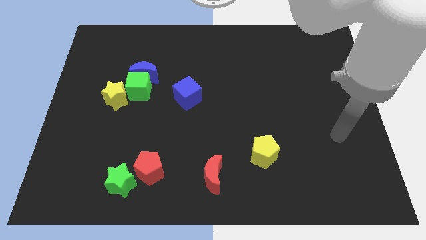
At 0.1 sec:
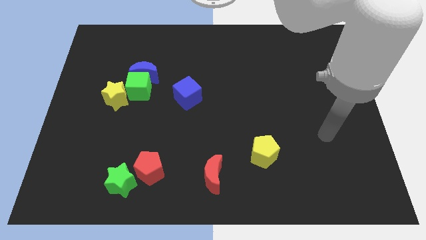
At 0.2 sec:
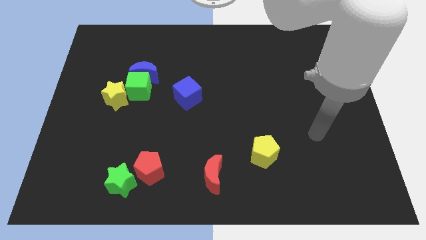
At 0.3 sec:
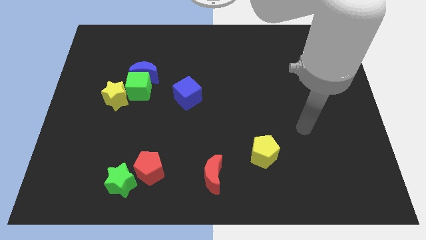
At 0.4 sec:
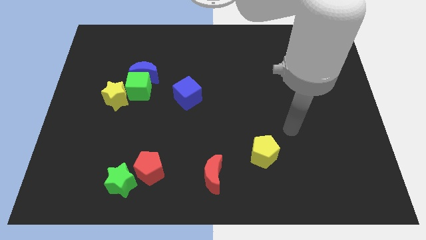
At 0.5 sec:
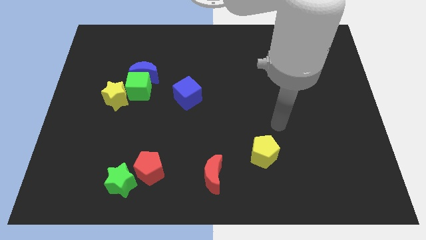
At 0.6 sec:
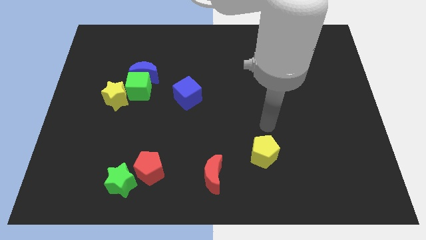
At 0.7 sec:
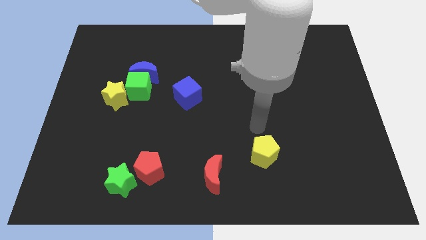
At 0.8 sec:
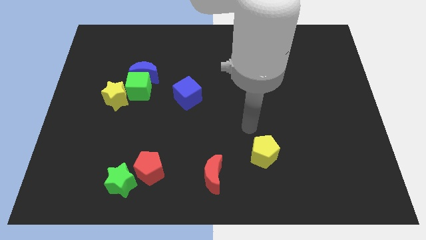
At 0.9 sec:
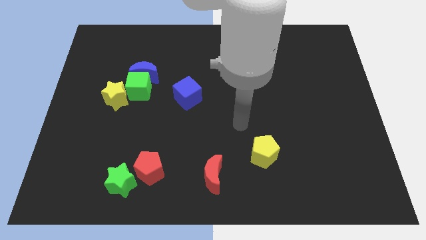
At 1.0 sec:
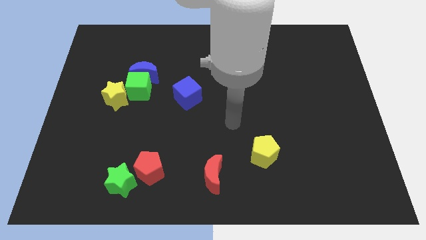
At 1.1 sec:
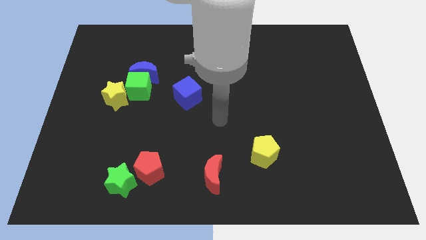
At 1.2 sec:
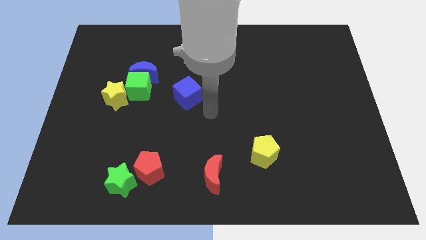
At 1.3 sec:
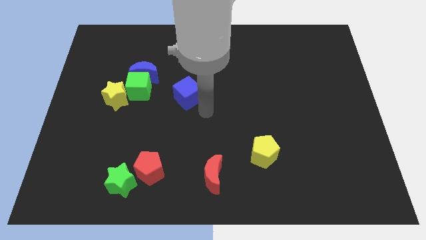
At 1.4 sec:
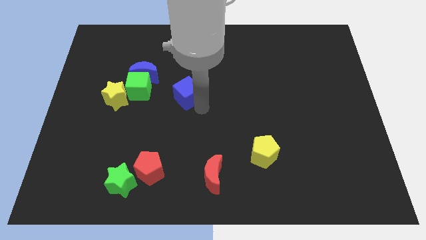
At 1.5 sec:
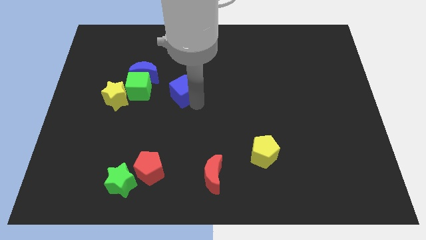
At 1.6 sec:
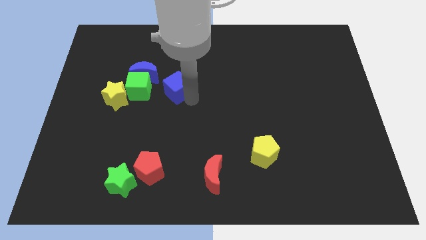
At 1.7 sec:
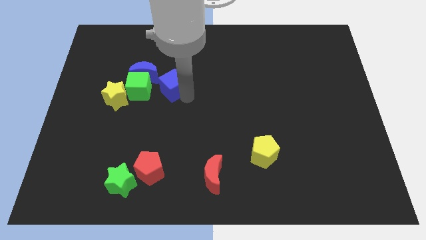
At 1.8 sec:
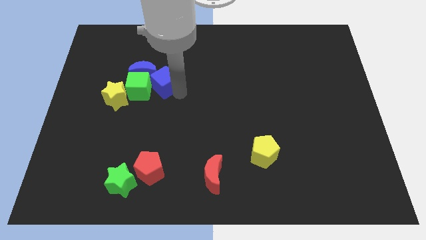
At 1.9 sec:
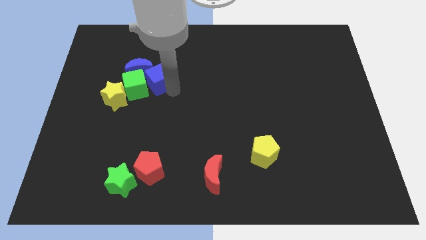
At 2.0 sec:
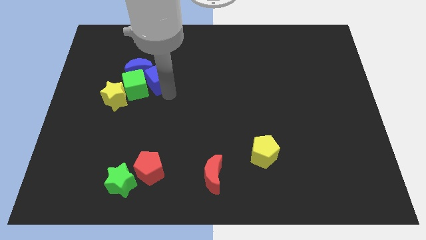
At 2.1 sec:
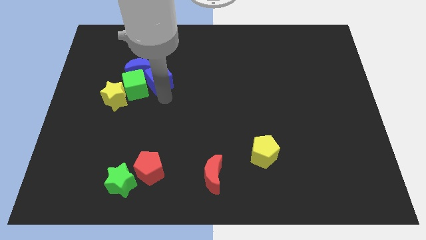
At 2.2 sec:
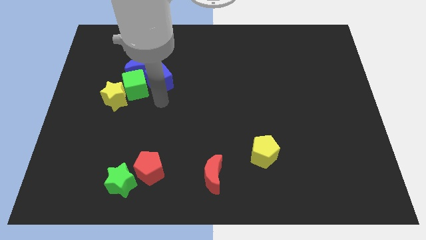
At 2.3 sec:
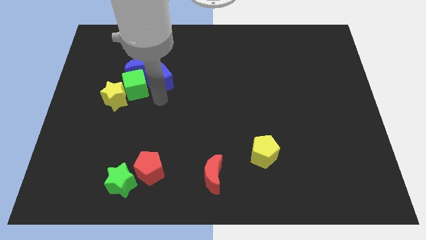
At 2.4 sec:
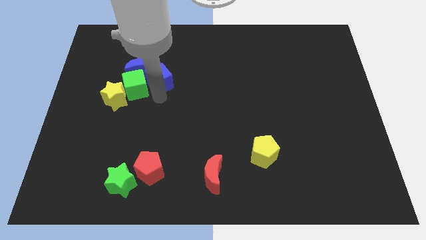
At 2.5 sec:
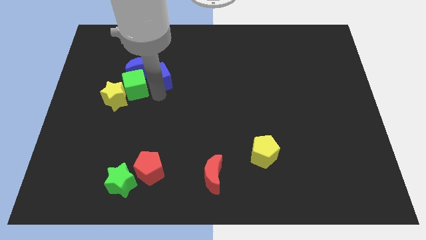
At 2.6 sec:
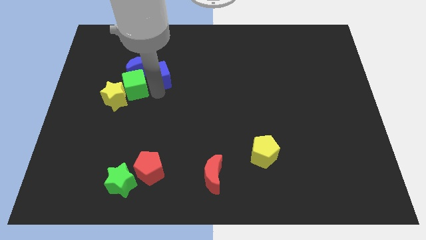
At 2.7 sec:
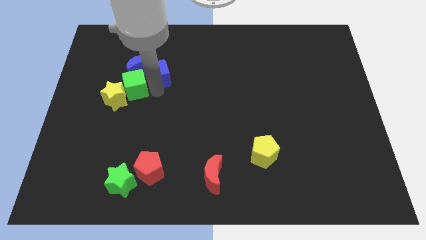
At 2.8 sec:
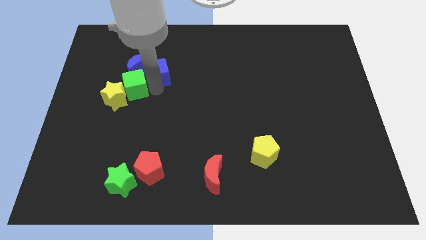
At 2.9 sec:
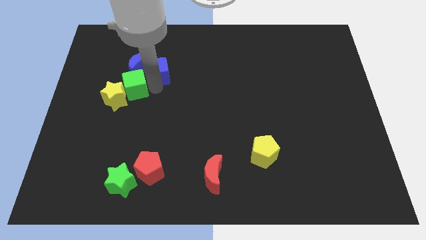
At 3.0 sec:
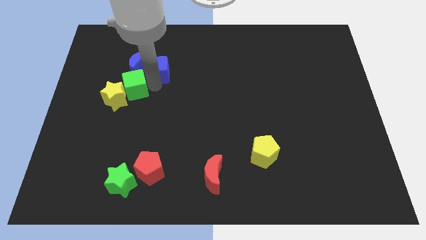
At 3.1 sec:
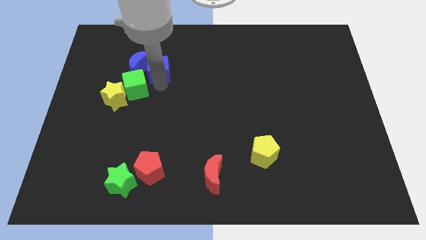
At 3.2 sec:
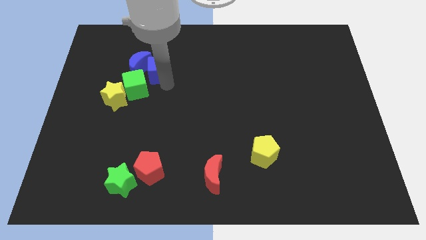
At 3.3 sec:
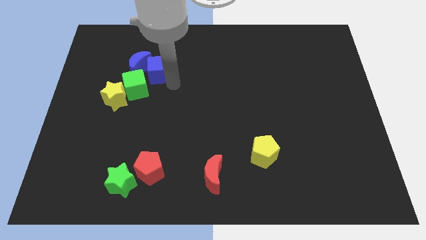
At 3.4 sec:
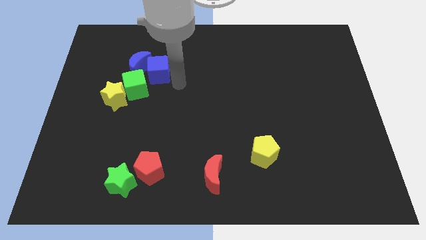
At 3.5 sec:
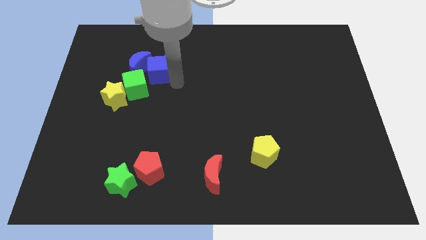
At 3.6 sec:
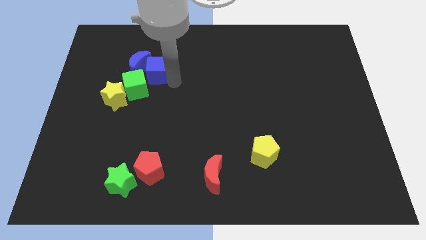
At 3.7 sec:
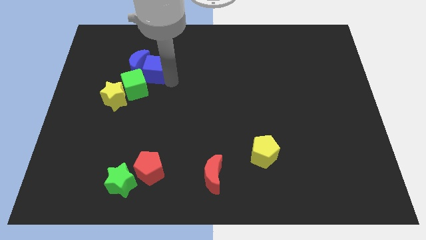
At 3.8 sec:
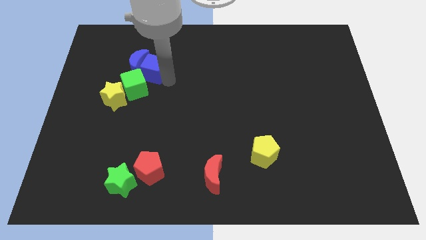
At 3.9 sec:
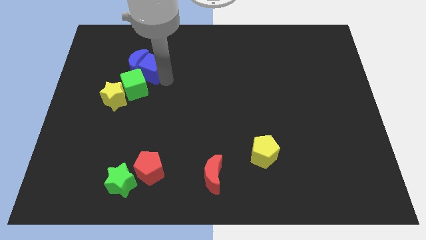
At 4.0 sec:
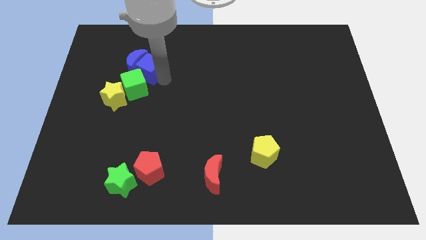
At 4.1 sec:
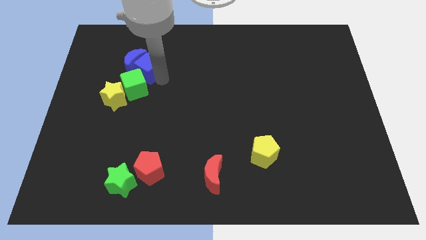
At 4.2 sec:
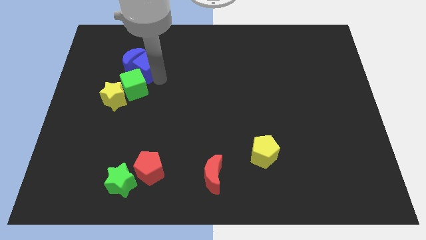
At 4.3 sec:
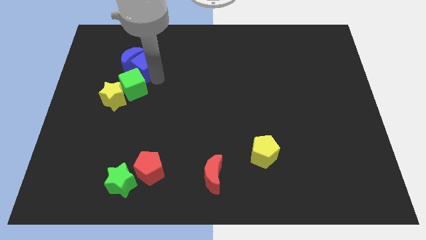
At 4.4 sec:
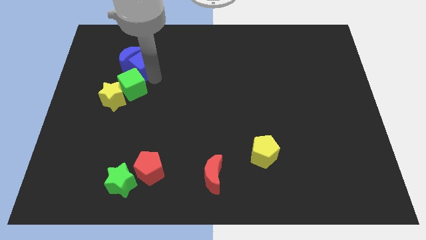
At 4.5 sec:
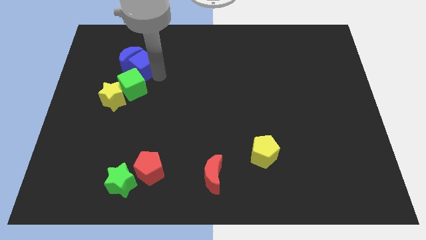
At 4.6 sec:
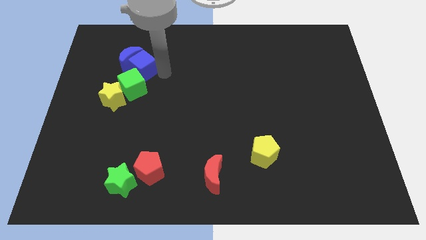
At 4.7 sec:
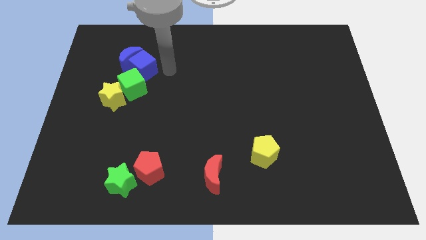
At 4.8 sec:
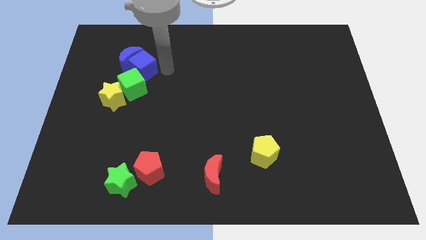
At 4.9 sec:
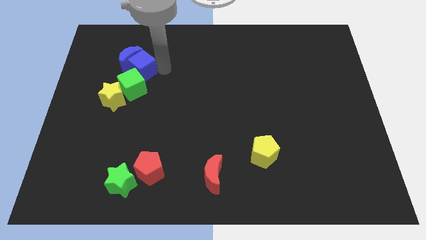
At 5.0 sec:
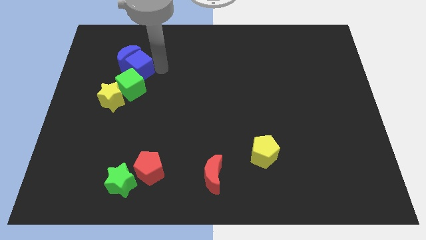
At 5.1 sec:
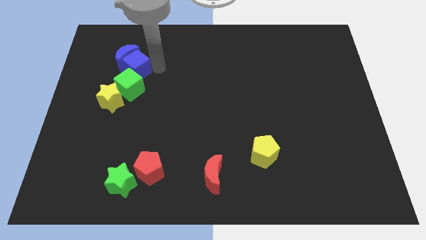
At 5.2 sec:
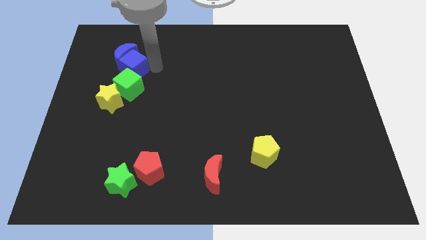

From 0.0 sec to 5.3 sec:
push the blue cube to the top of the yellow star

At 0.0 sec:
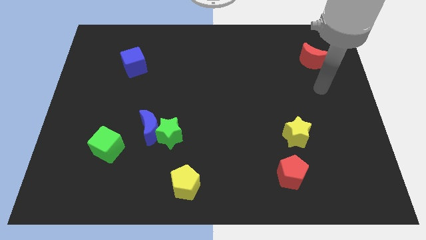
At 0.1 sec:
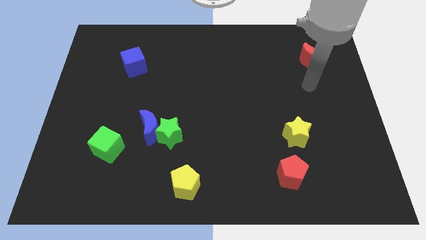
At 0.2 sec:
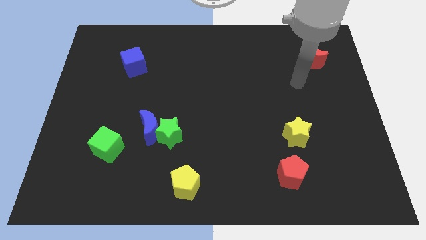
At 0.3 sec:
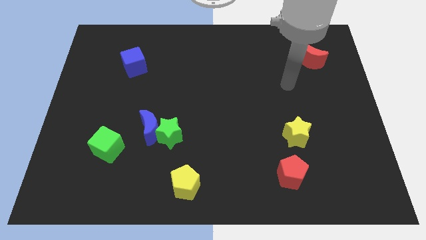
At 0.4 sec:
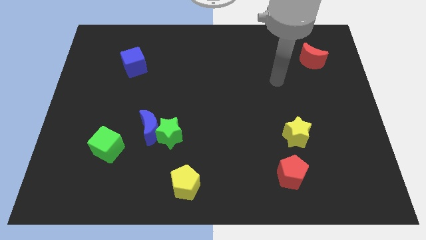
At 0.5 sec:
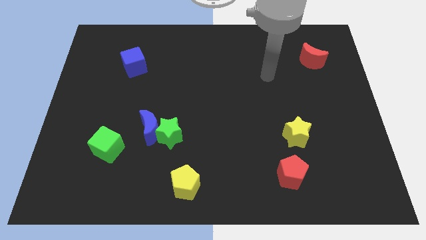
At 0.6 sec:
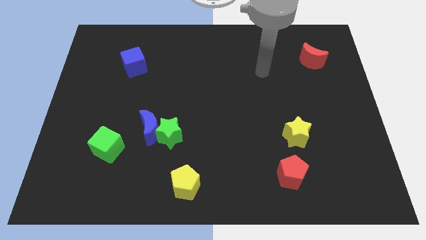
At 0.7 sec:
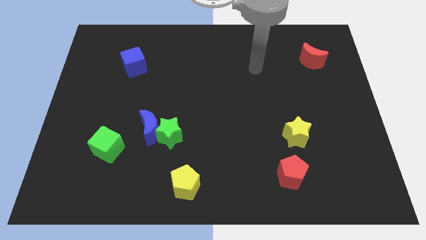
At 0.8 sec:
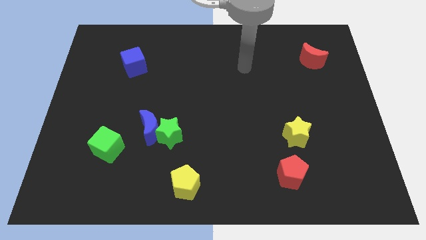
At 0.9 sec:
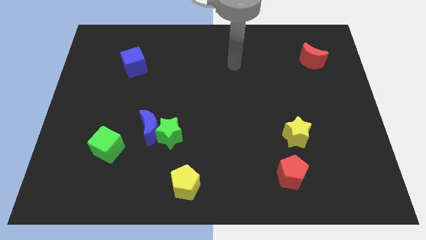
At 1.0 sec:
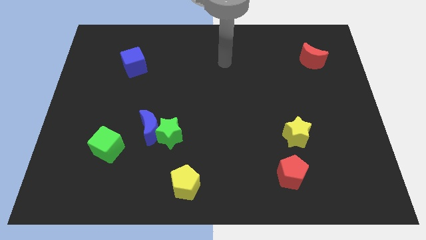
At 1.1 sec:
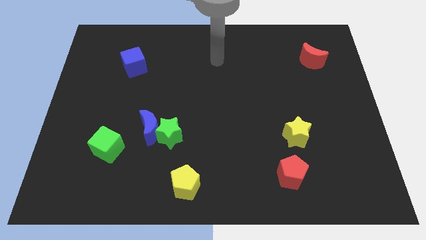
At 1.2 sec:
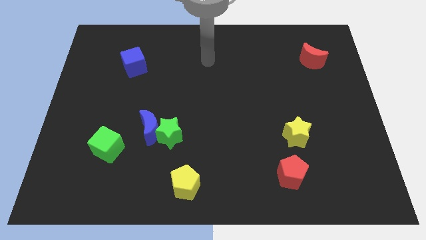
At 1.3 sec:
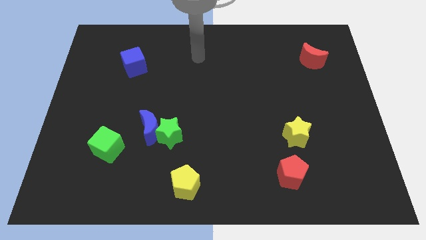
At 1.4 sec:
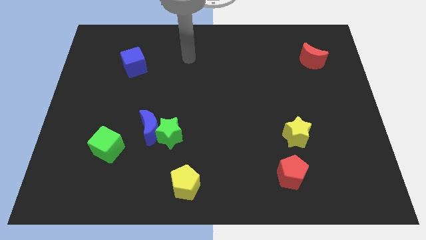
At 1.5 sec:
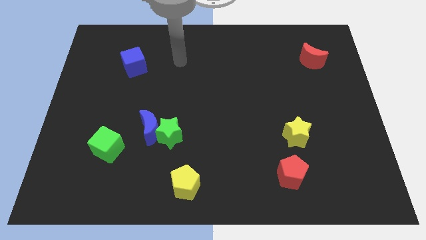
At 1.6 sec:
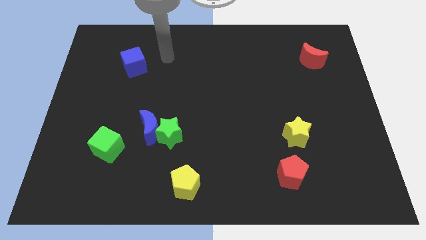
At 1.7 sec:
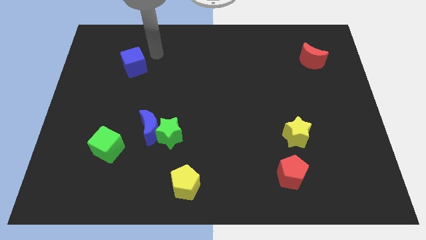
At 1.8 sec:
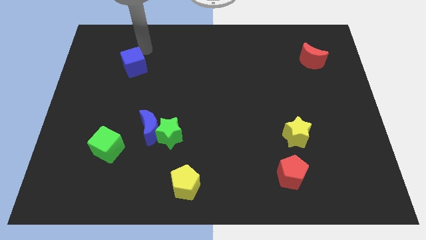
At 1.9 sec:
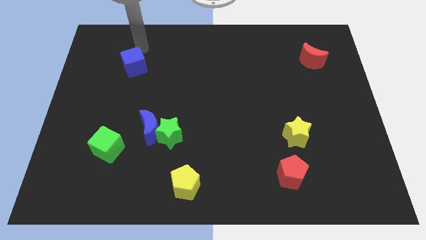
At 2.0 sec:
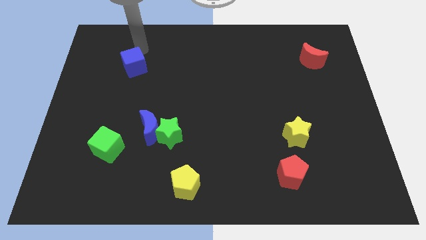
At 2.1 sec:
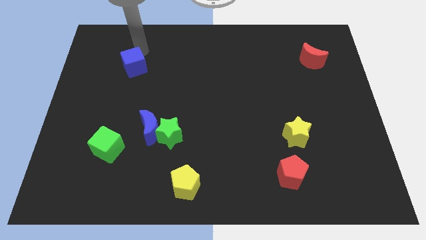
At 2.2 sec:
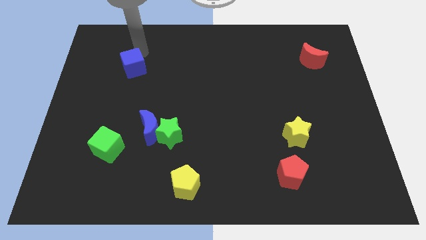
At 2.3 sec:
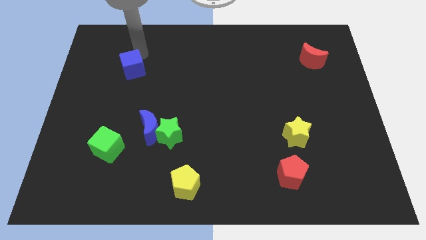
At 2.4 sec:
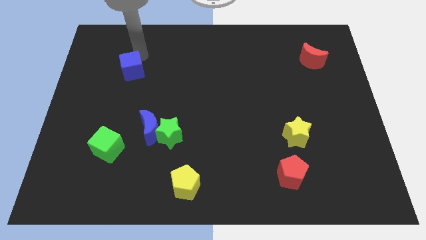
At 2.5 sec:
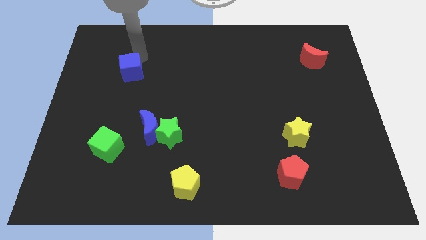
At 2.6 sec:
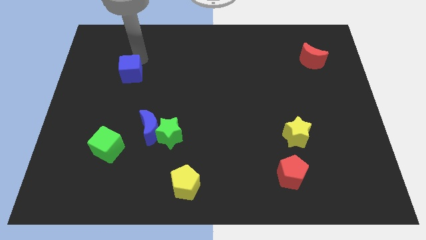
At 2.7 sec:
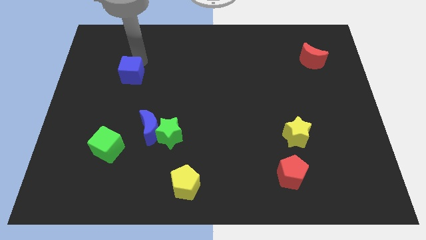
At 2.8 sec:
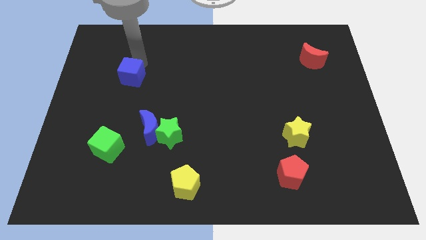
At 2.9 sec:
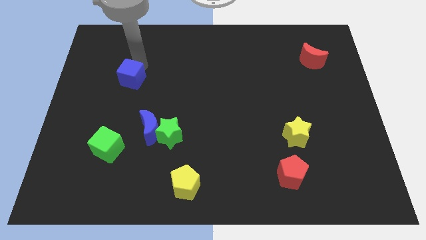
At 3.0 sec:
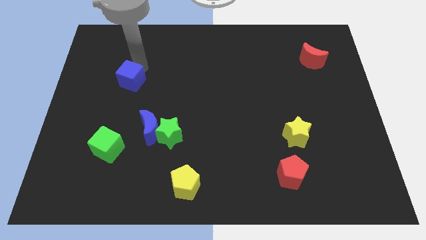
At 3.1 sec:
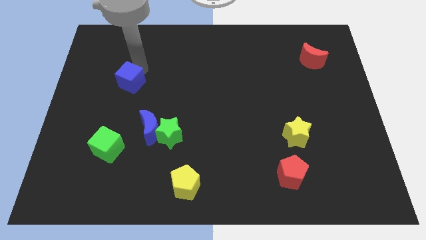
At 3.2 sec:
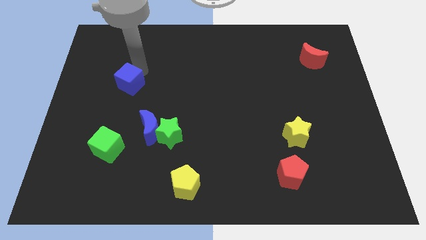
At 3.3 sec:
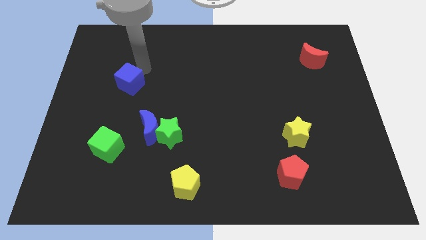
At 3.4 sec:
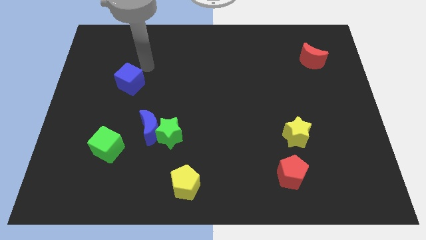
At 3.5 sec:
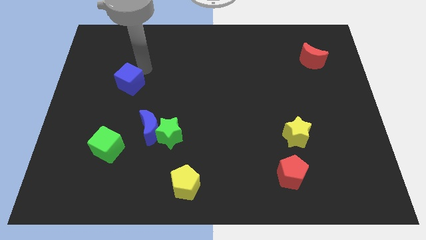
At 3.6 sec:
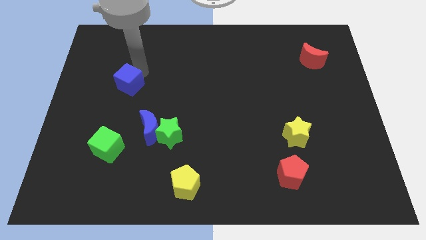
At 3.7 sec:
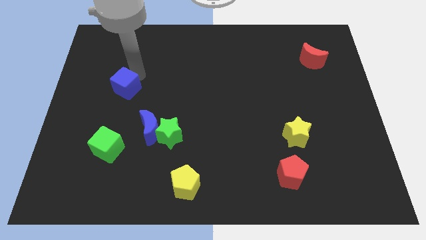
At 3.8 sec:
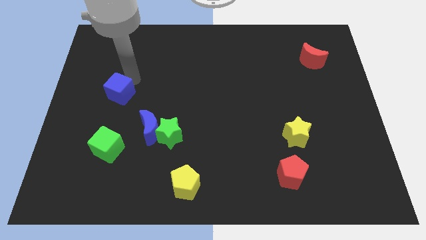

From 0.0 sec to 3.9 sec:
slide the blue cube above the green cube
